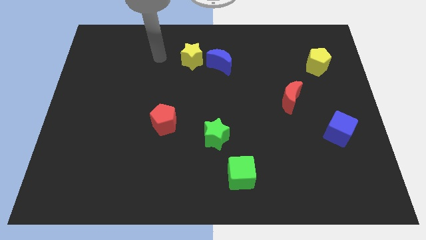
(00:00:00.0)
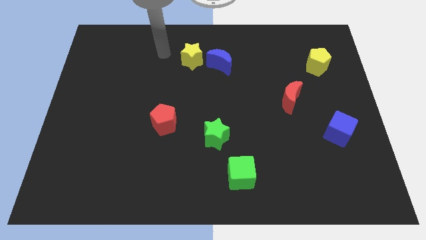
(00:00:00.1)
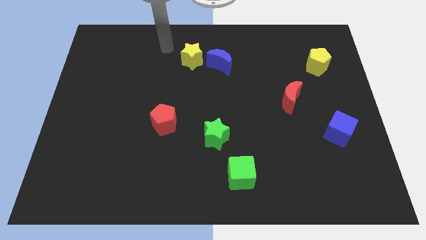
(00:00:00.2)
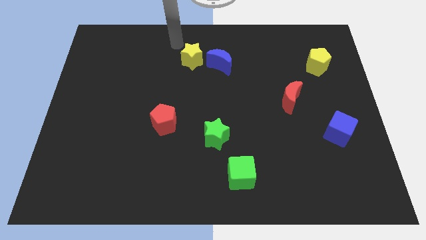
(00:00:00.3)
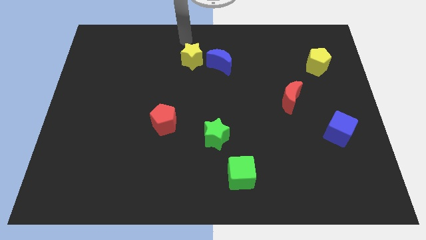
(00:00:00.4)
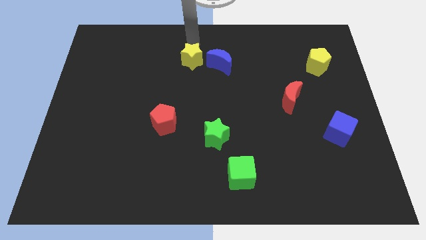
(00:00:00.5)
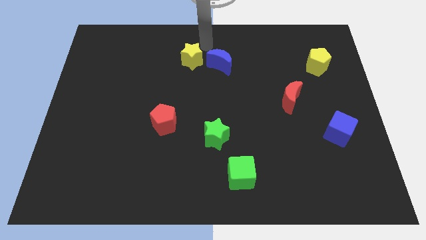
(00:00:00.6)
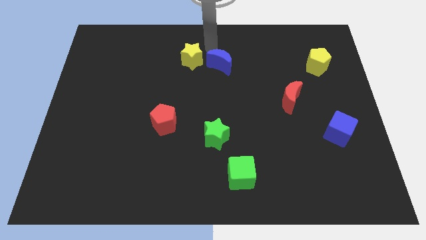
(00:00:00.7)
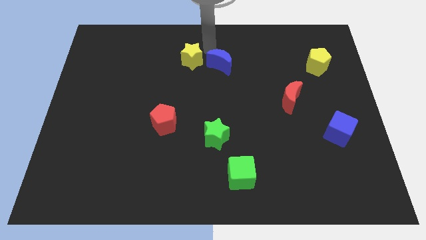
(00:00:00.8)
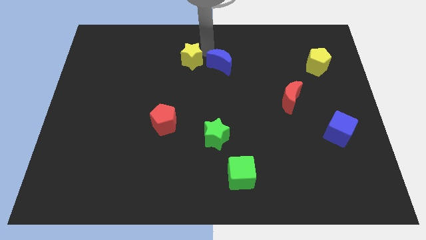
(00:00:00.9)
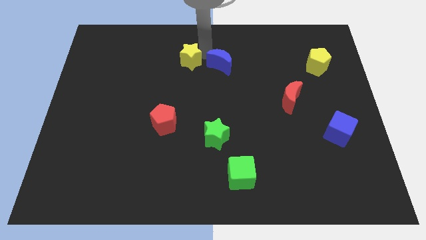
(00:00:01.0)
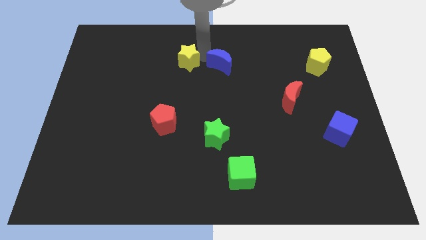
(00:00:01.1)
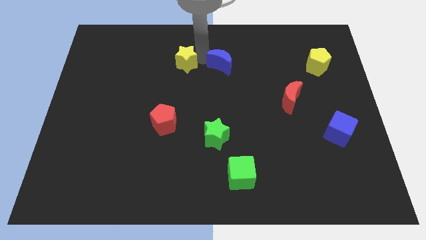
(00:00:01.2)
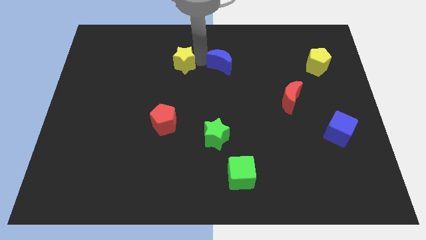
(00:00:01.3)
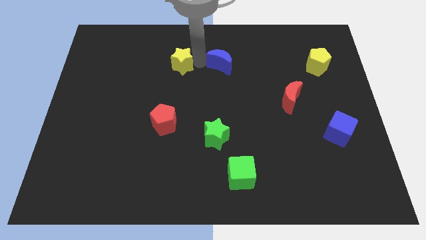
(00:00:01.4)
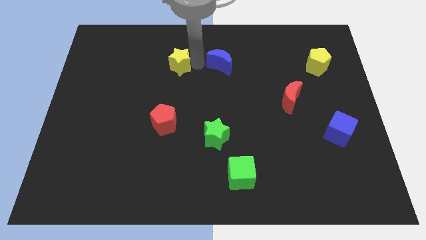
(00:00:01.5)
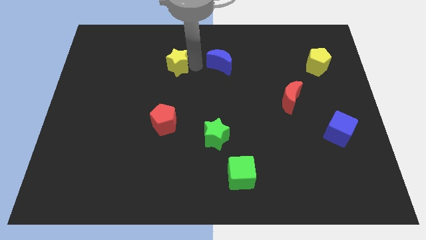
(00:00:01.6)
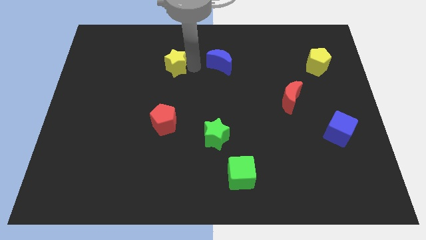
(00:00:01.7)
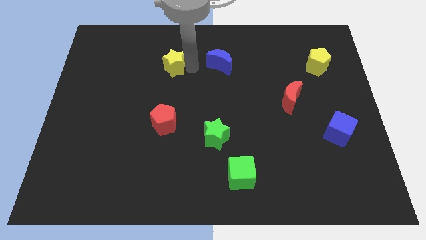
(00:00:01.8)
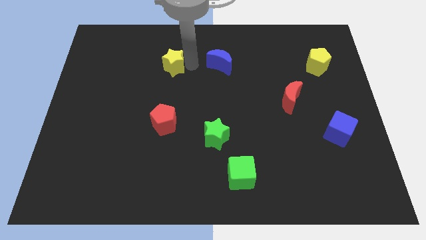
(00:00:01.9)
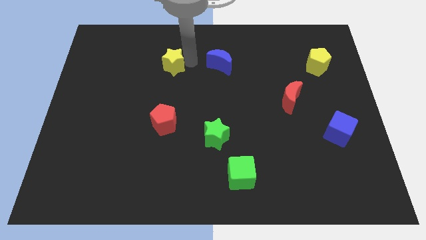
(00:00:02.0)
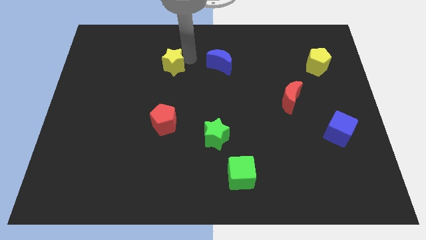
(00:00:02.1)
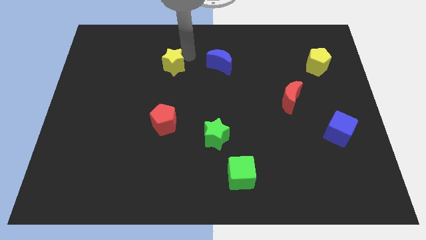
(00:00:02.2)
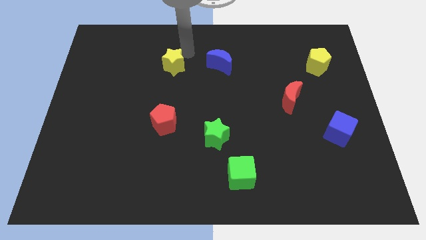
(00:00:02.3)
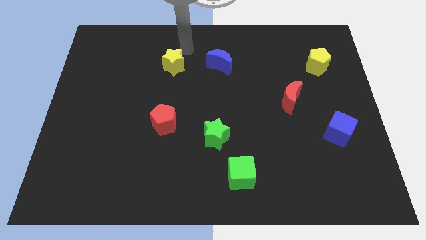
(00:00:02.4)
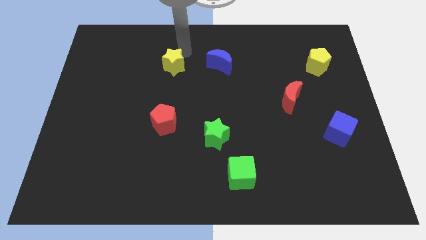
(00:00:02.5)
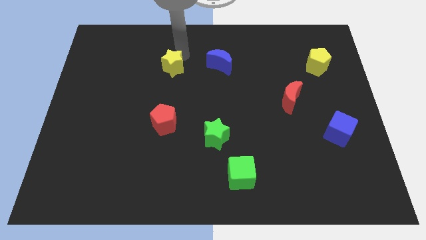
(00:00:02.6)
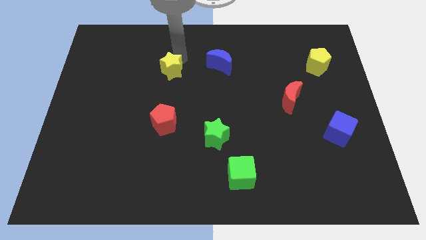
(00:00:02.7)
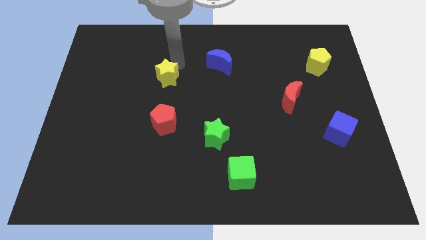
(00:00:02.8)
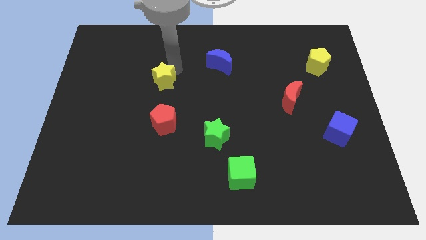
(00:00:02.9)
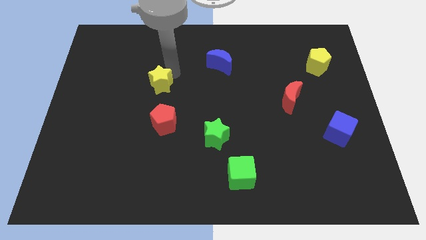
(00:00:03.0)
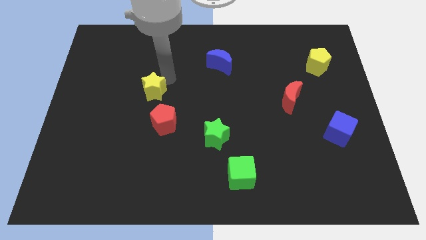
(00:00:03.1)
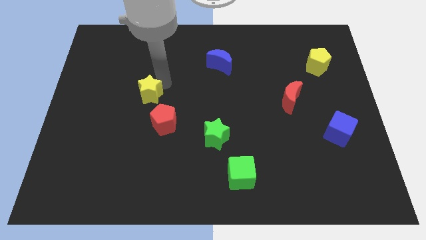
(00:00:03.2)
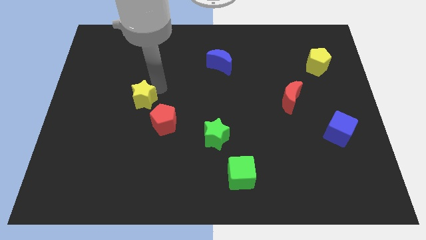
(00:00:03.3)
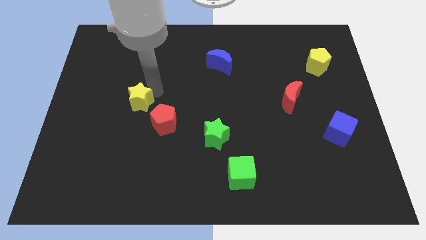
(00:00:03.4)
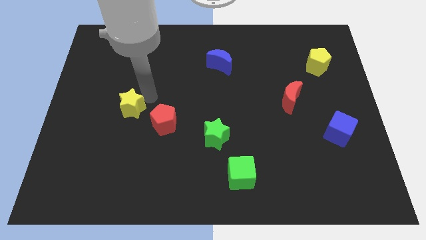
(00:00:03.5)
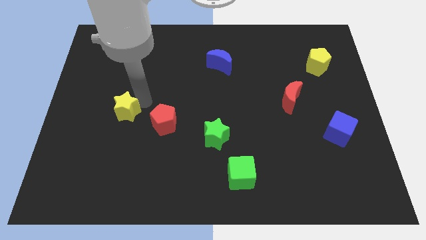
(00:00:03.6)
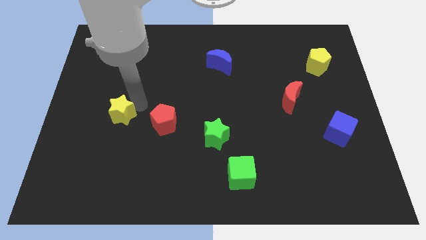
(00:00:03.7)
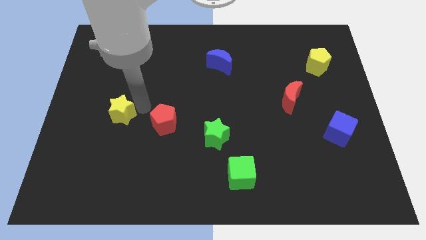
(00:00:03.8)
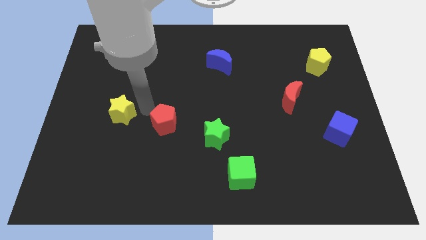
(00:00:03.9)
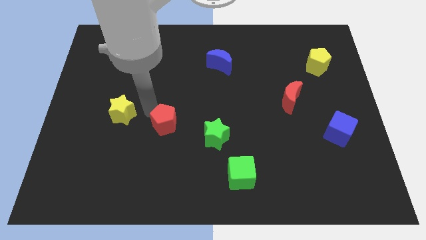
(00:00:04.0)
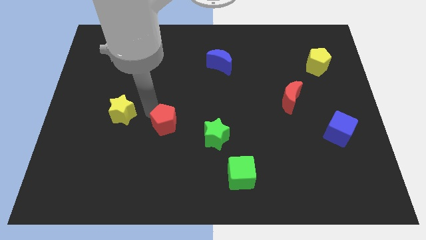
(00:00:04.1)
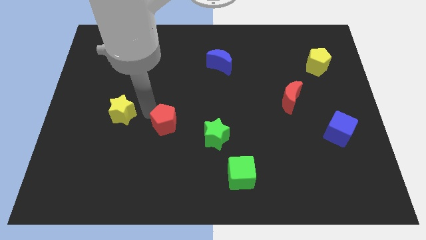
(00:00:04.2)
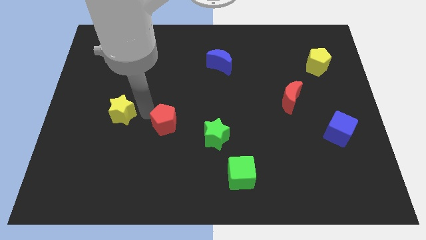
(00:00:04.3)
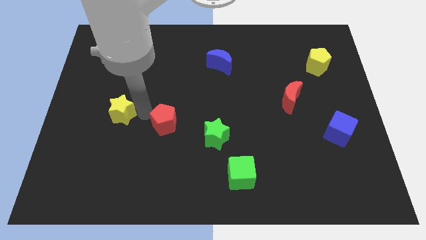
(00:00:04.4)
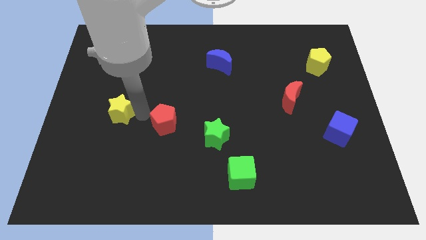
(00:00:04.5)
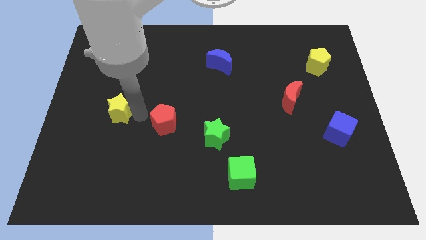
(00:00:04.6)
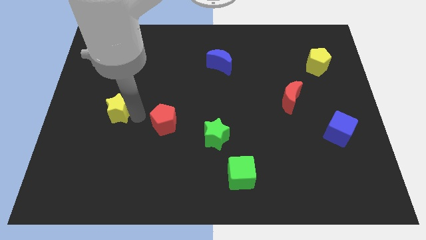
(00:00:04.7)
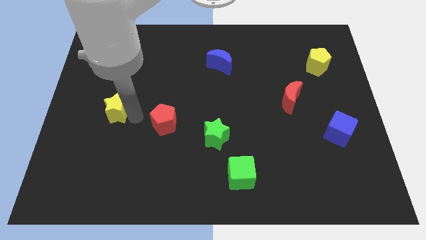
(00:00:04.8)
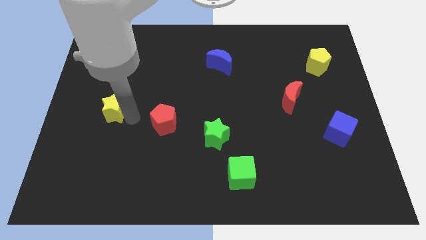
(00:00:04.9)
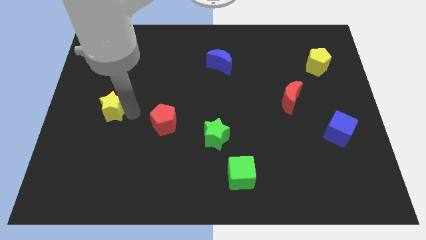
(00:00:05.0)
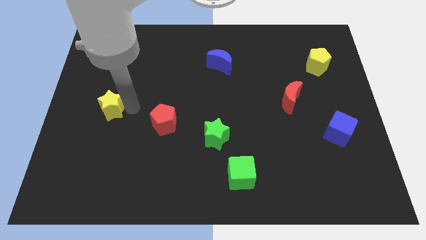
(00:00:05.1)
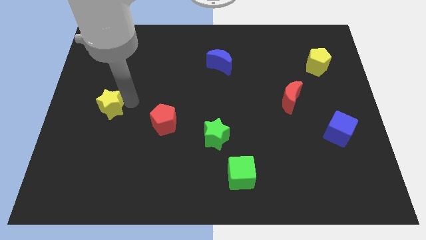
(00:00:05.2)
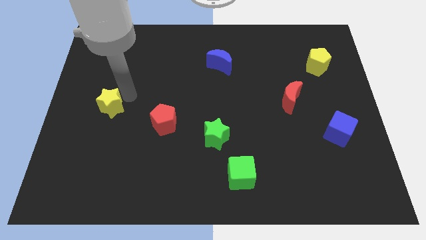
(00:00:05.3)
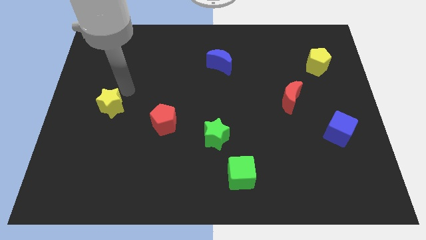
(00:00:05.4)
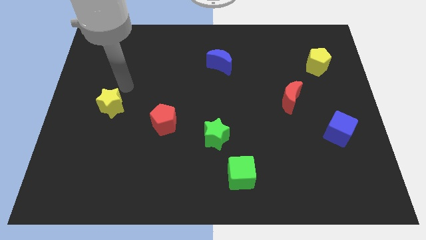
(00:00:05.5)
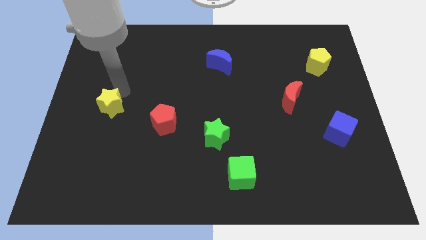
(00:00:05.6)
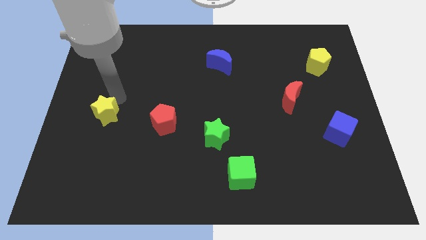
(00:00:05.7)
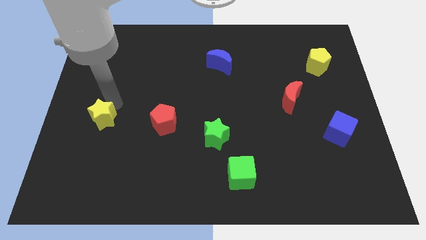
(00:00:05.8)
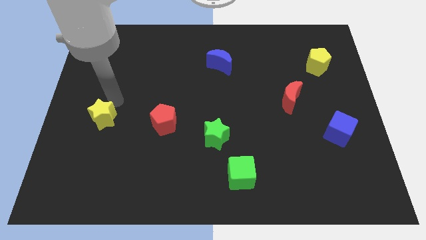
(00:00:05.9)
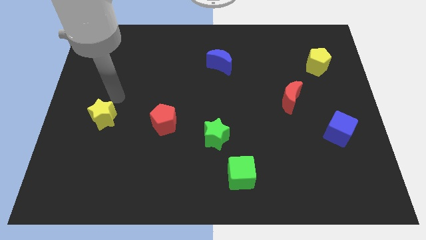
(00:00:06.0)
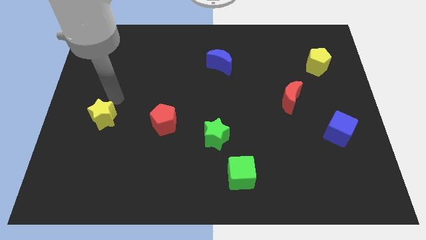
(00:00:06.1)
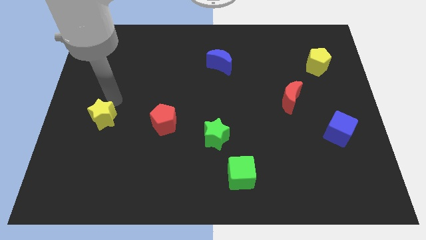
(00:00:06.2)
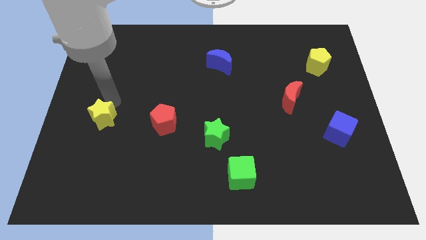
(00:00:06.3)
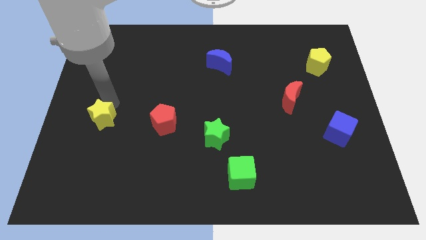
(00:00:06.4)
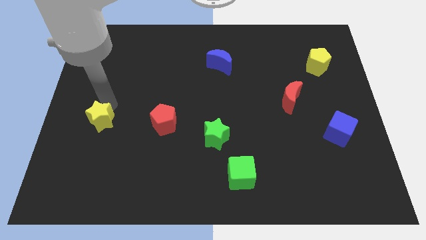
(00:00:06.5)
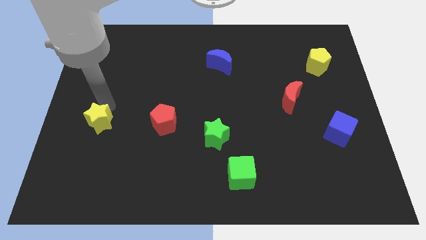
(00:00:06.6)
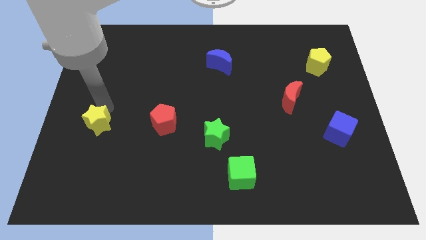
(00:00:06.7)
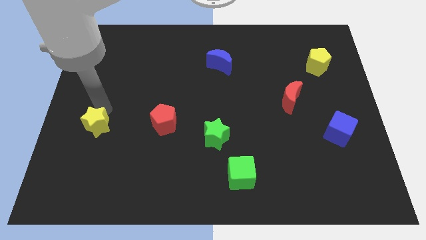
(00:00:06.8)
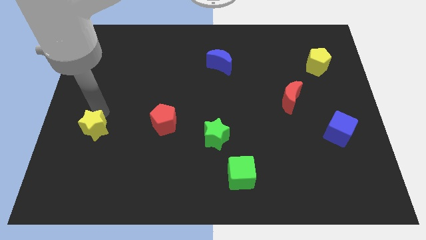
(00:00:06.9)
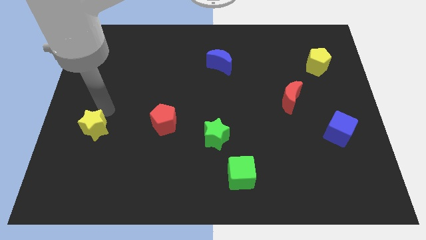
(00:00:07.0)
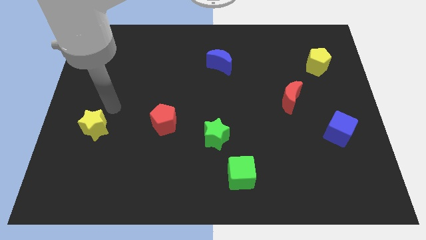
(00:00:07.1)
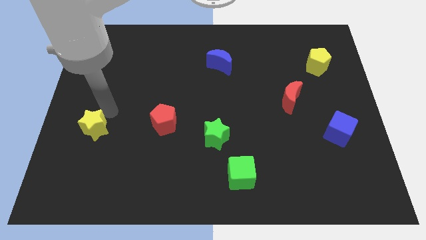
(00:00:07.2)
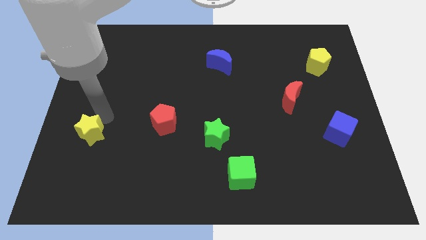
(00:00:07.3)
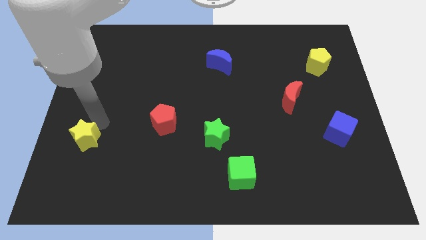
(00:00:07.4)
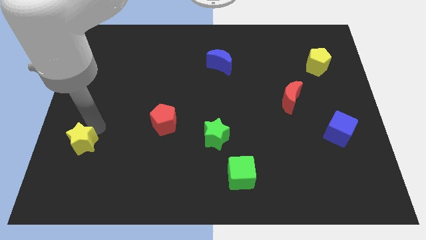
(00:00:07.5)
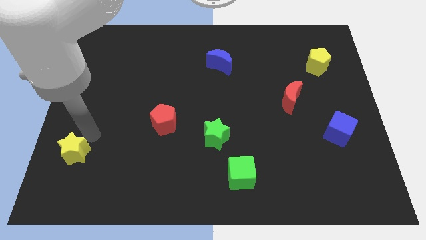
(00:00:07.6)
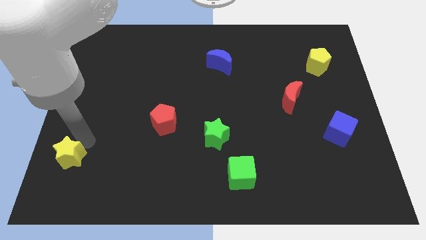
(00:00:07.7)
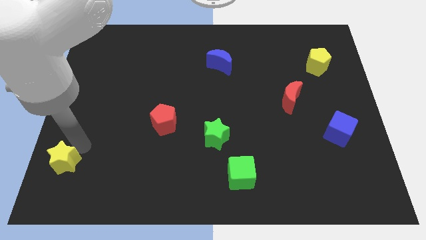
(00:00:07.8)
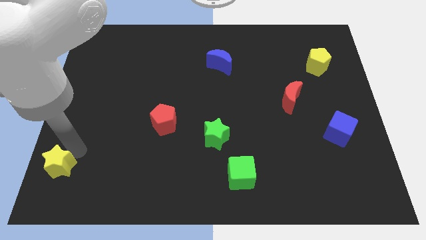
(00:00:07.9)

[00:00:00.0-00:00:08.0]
push the yellow star to the bottom left
